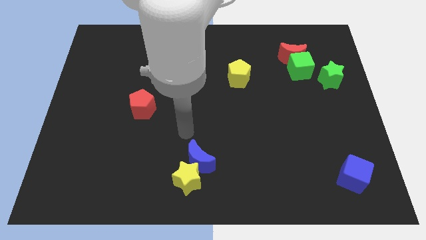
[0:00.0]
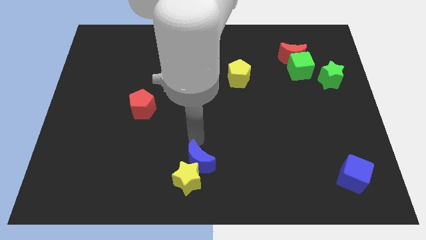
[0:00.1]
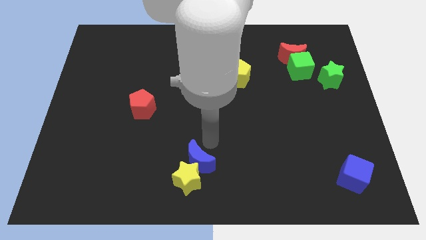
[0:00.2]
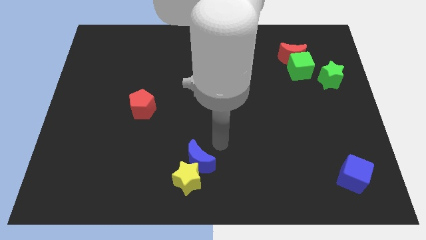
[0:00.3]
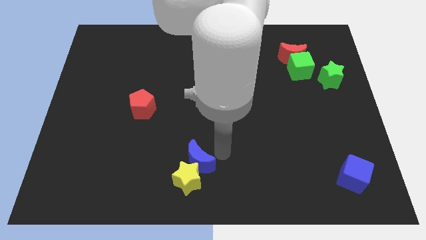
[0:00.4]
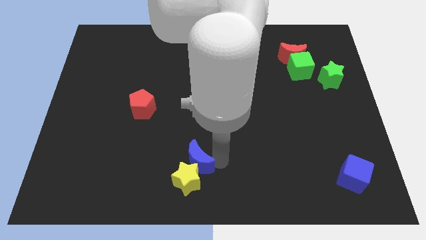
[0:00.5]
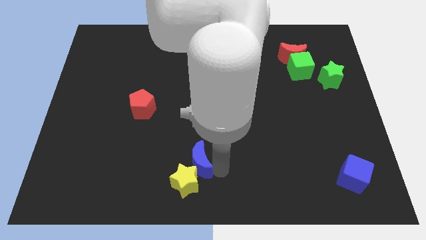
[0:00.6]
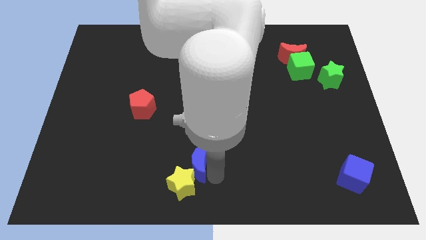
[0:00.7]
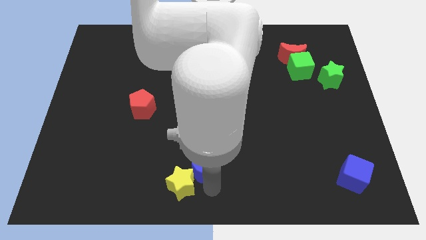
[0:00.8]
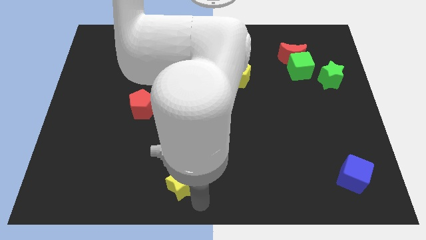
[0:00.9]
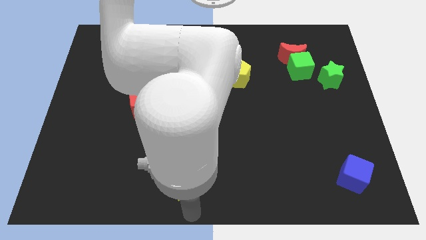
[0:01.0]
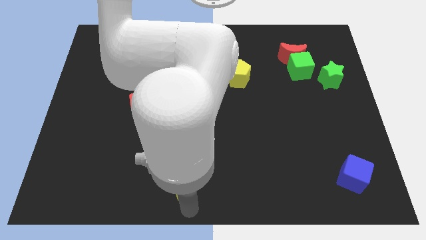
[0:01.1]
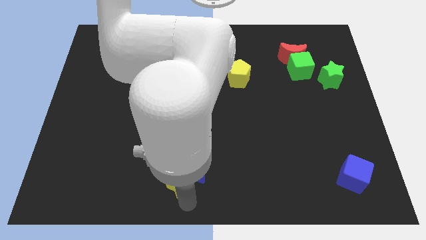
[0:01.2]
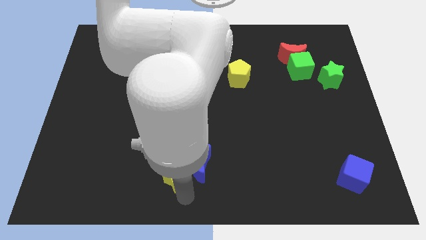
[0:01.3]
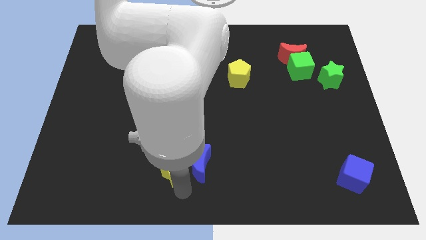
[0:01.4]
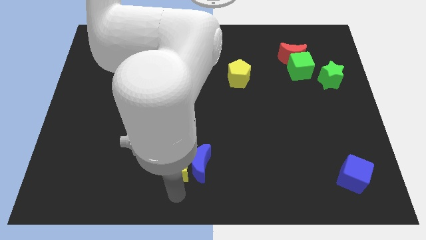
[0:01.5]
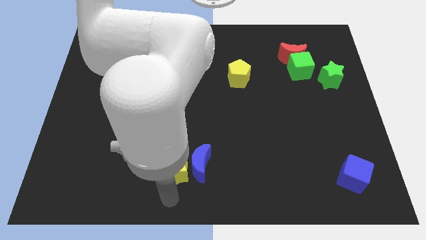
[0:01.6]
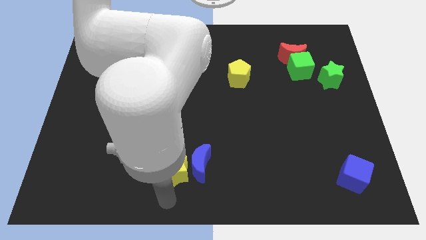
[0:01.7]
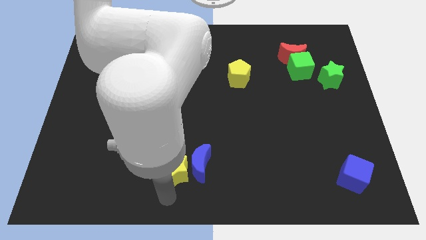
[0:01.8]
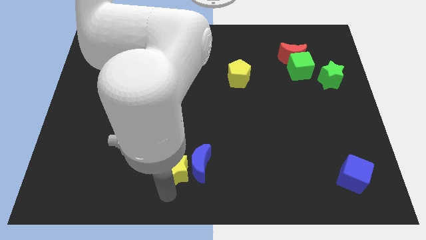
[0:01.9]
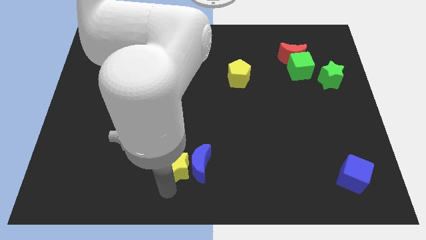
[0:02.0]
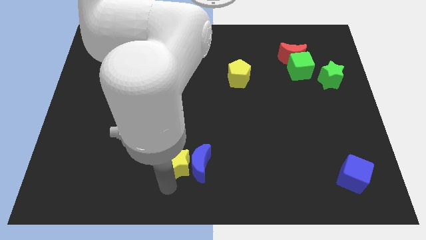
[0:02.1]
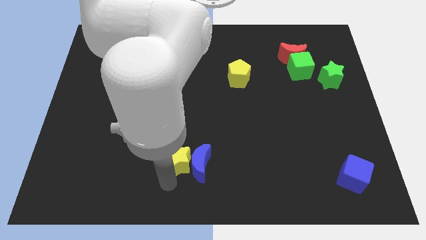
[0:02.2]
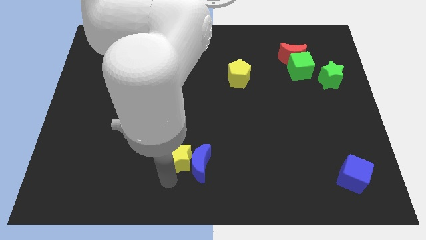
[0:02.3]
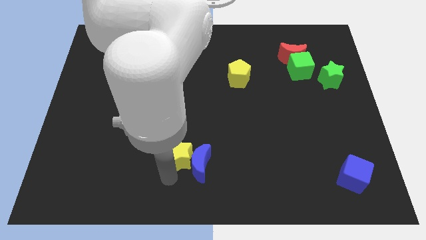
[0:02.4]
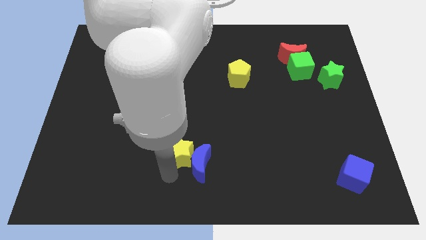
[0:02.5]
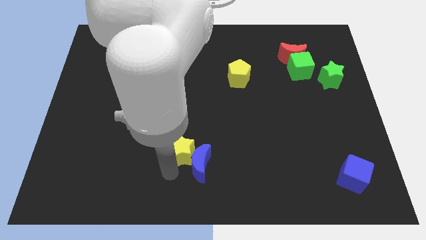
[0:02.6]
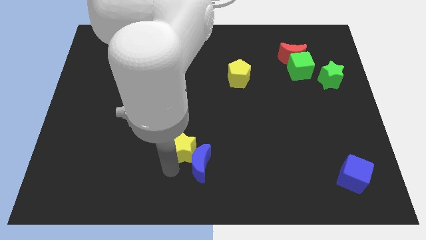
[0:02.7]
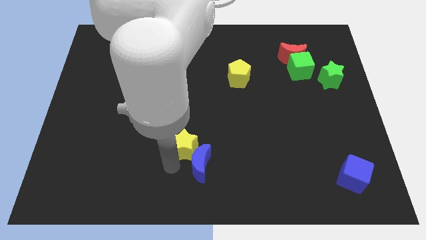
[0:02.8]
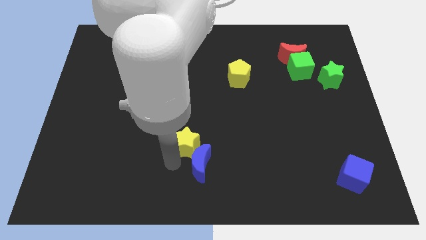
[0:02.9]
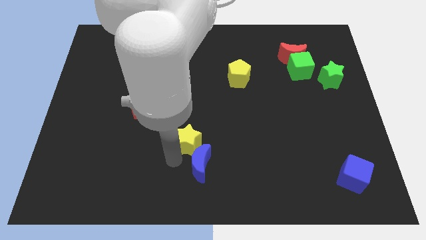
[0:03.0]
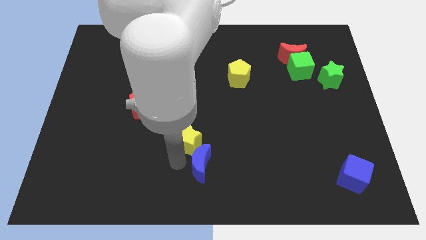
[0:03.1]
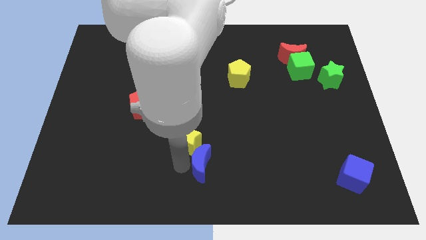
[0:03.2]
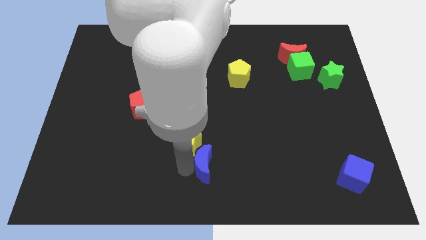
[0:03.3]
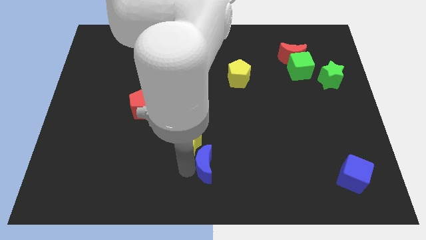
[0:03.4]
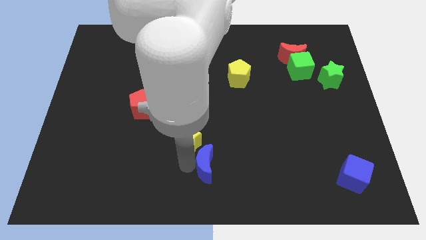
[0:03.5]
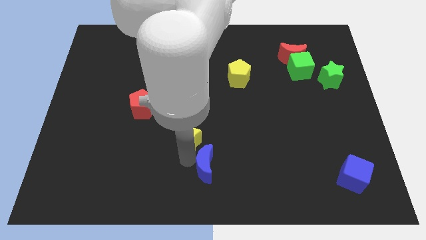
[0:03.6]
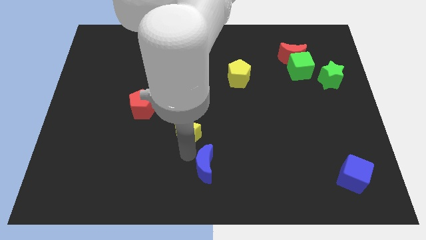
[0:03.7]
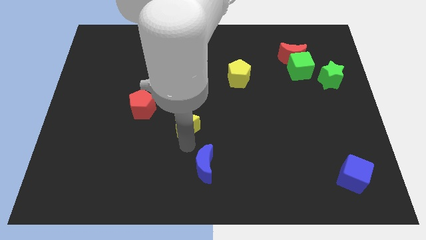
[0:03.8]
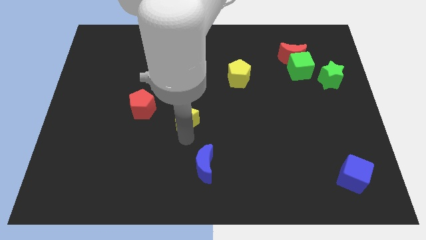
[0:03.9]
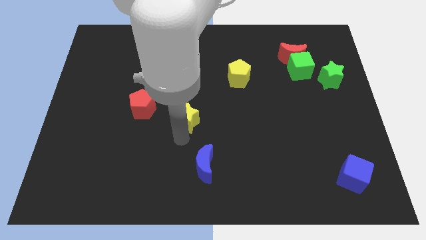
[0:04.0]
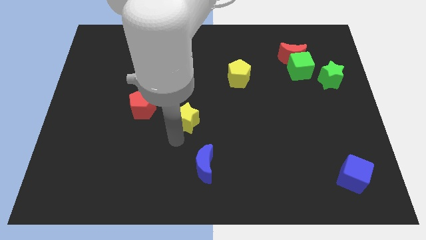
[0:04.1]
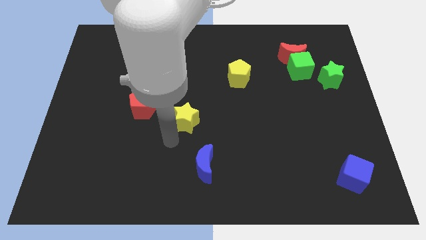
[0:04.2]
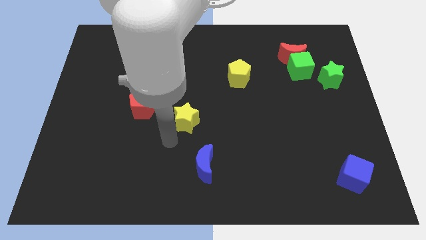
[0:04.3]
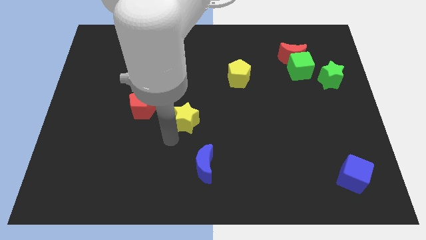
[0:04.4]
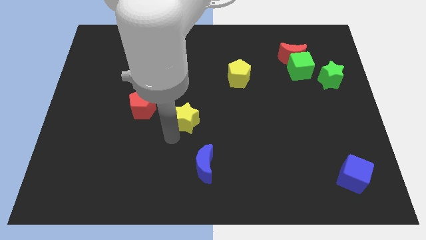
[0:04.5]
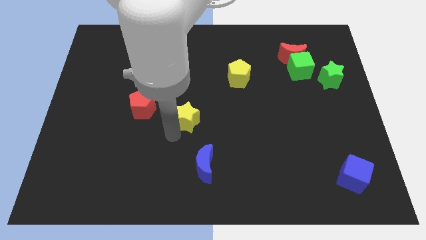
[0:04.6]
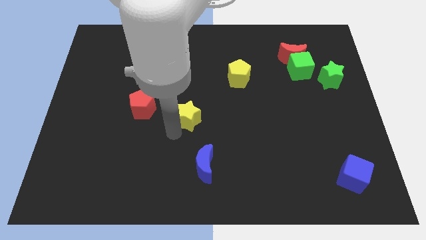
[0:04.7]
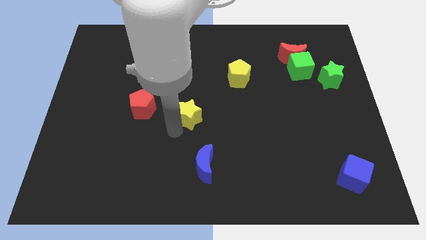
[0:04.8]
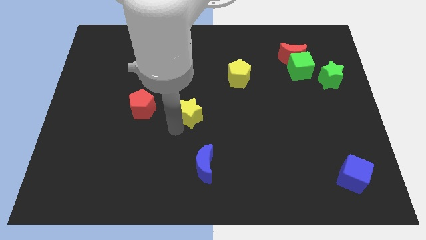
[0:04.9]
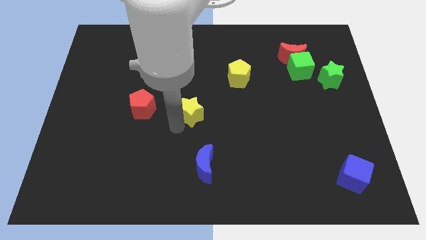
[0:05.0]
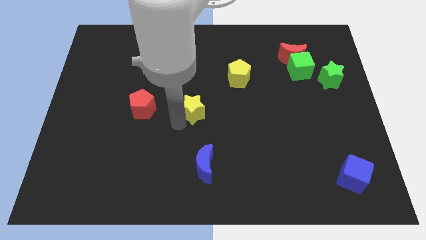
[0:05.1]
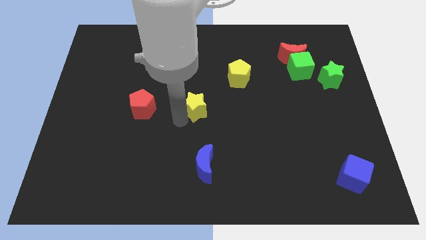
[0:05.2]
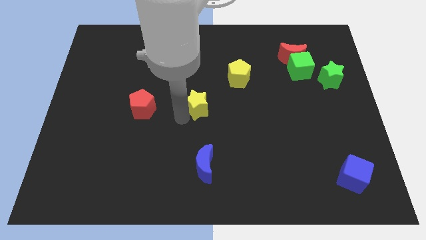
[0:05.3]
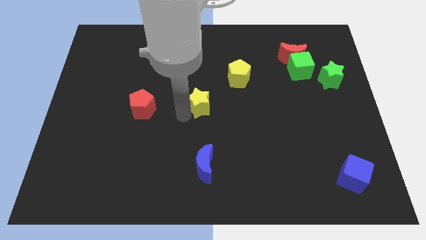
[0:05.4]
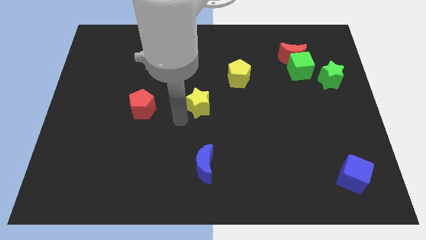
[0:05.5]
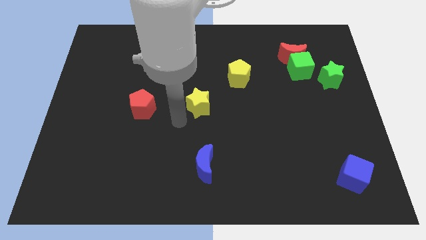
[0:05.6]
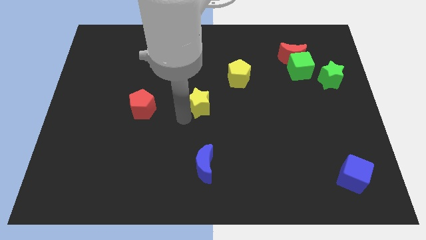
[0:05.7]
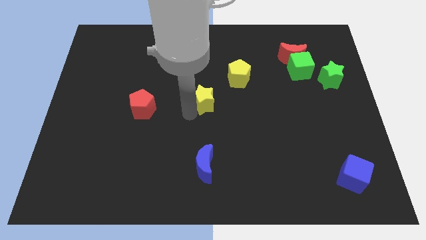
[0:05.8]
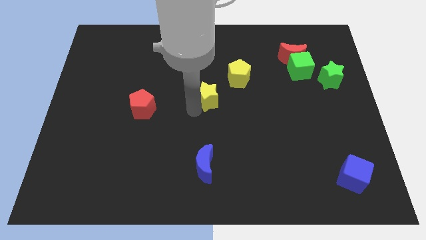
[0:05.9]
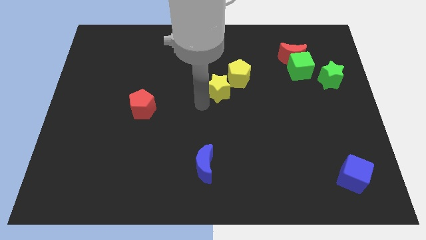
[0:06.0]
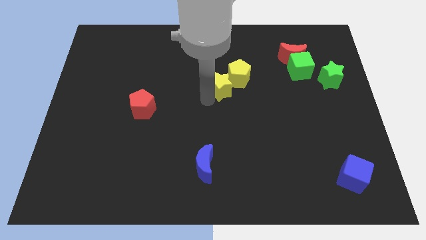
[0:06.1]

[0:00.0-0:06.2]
move the yellow star close to the yellow pentagon

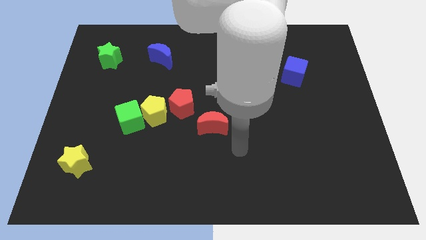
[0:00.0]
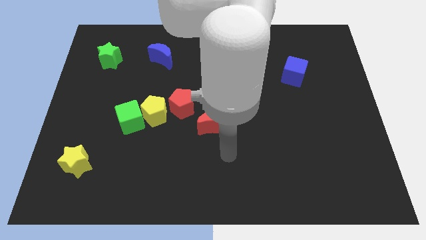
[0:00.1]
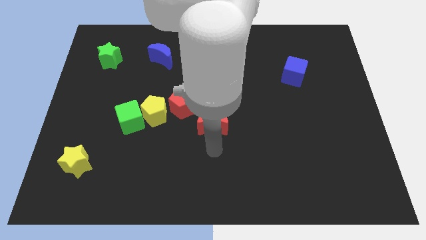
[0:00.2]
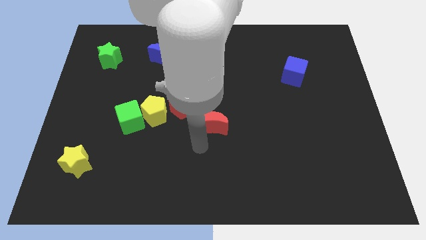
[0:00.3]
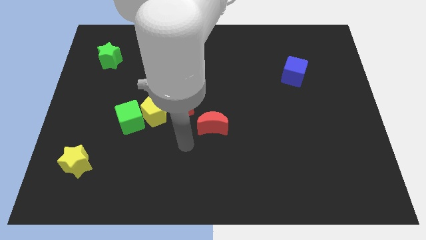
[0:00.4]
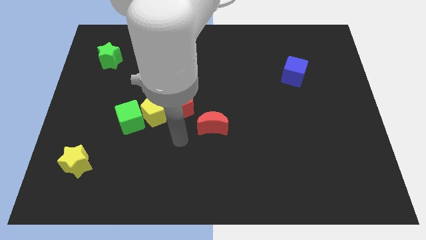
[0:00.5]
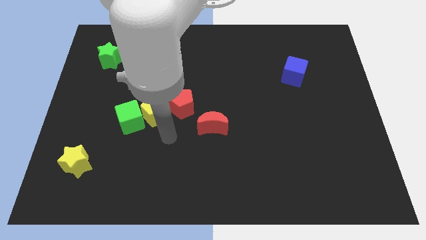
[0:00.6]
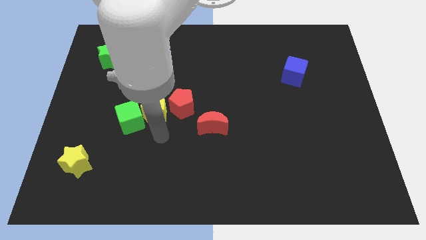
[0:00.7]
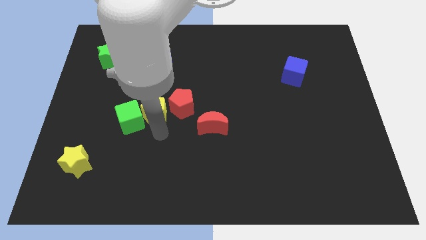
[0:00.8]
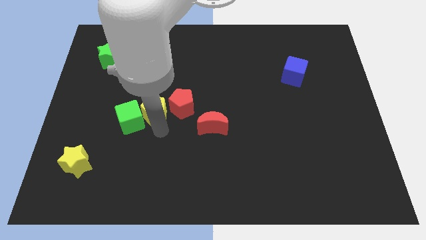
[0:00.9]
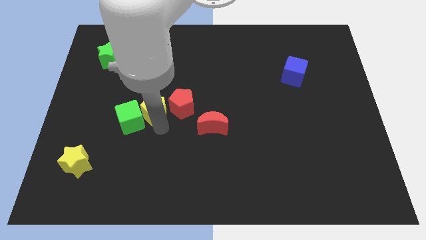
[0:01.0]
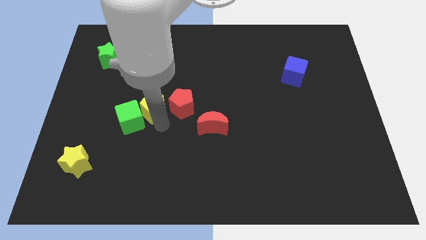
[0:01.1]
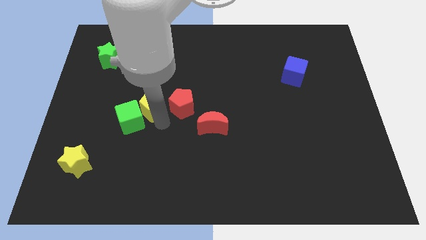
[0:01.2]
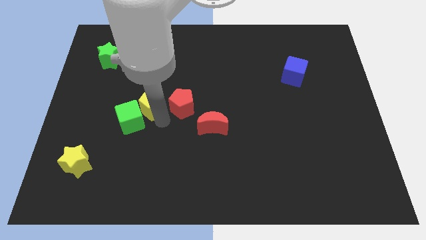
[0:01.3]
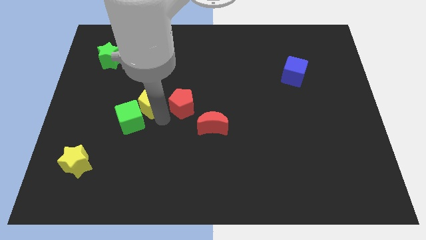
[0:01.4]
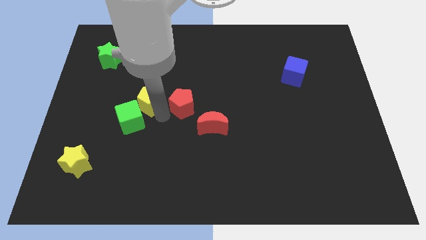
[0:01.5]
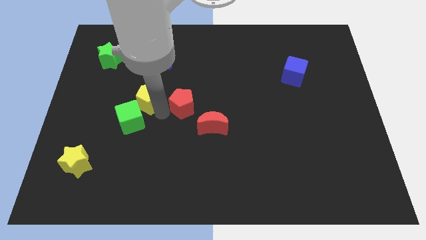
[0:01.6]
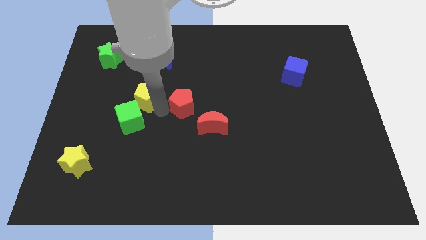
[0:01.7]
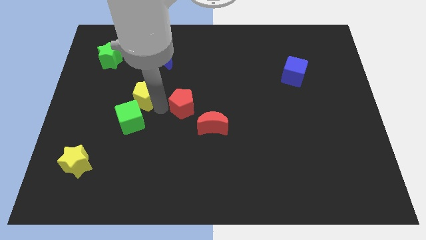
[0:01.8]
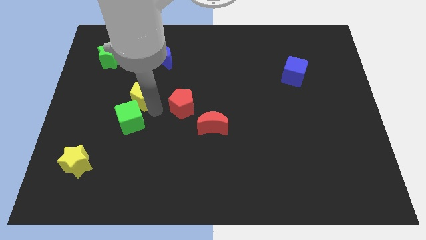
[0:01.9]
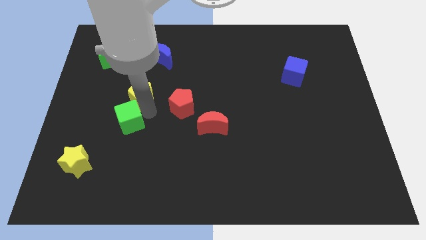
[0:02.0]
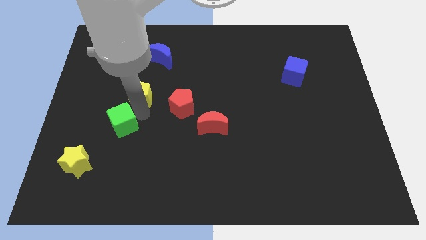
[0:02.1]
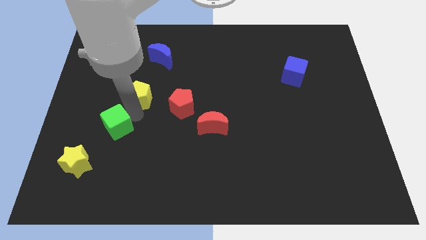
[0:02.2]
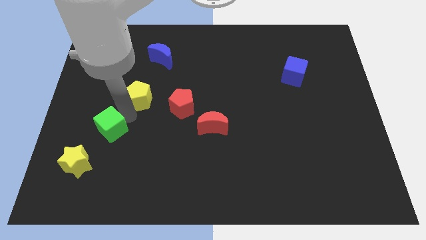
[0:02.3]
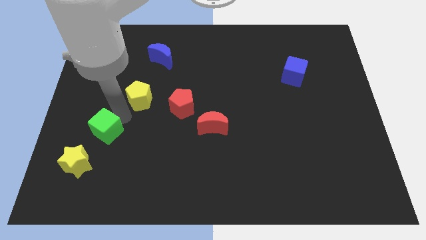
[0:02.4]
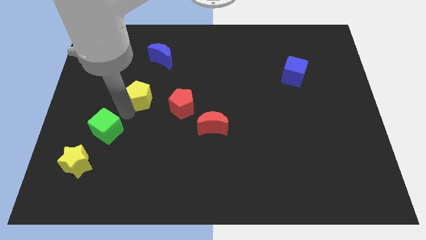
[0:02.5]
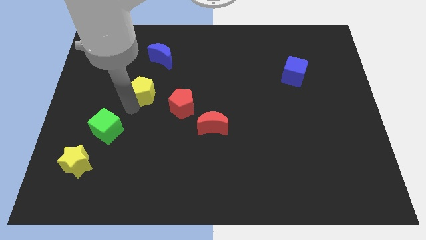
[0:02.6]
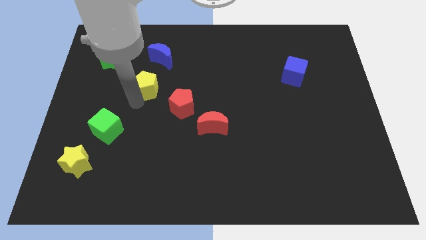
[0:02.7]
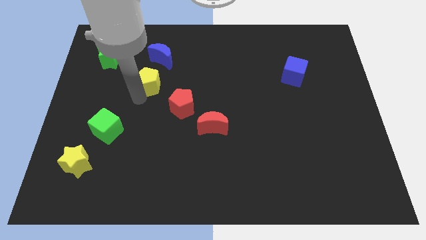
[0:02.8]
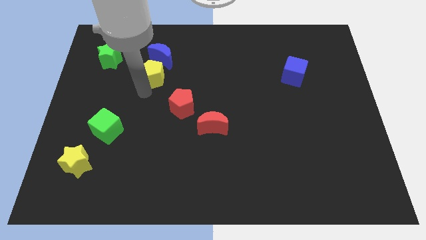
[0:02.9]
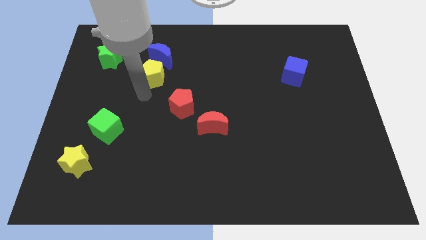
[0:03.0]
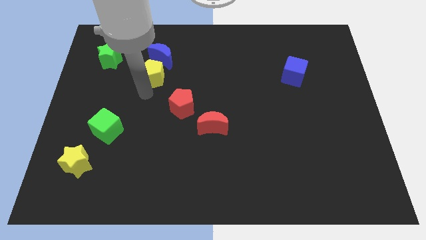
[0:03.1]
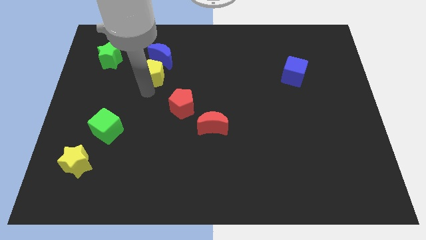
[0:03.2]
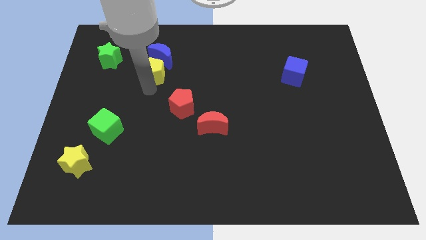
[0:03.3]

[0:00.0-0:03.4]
push the yellow pentagon next to the blue moon
